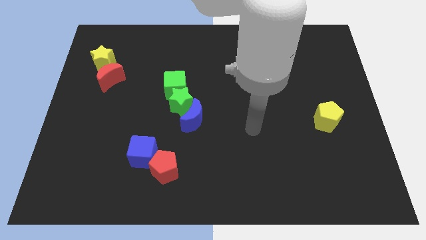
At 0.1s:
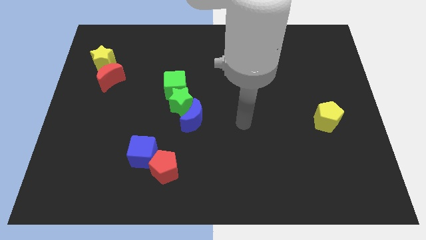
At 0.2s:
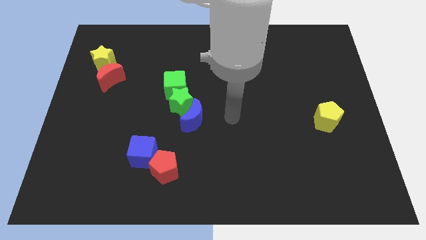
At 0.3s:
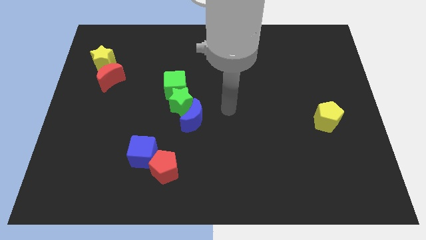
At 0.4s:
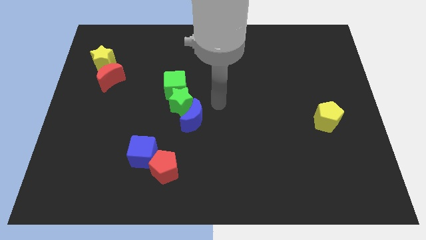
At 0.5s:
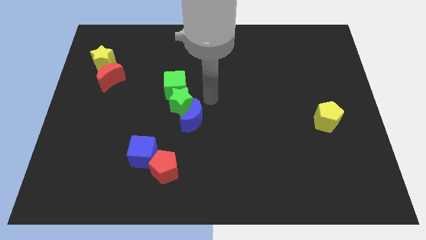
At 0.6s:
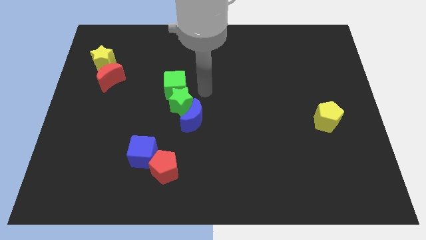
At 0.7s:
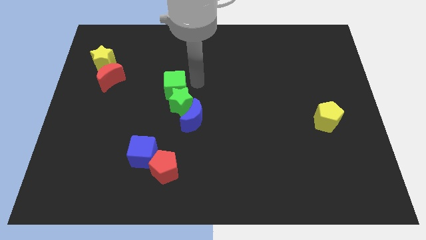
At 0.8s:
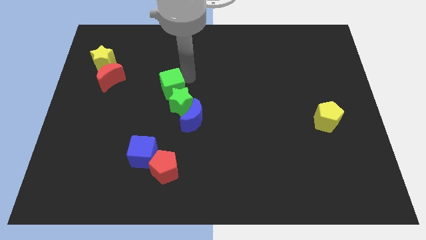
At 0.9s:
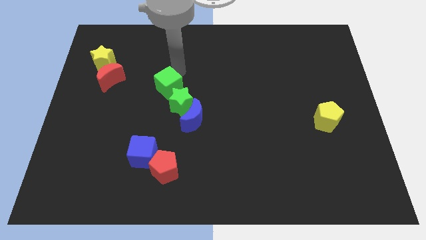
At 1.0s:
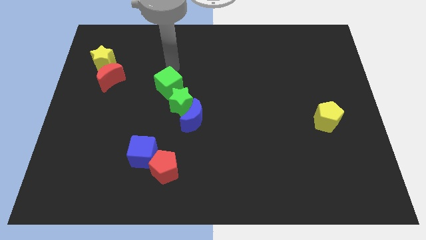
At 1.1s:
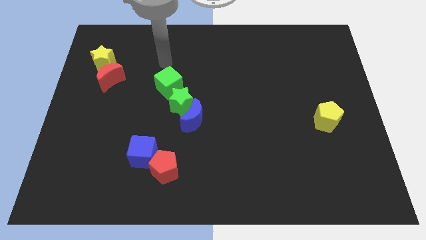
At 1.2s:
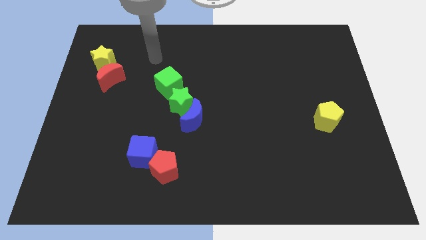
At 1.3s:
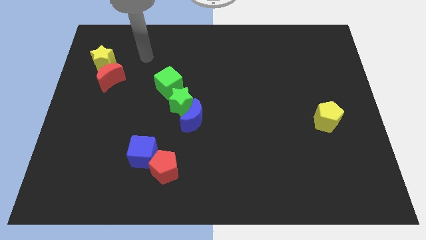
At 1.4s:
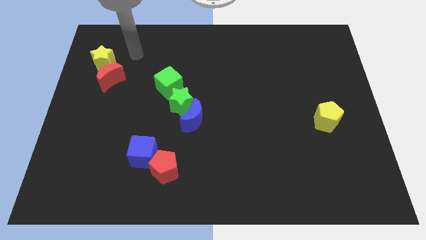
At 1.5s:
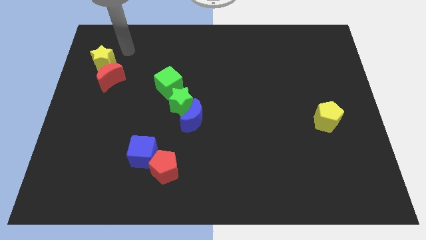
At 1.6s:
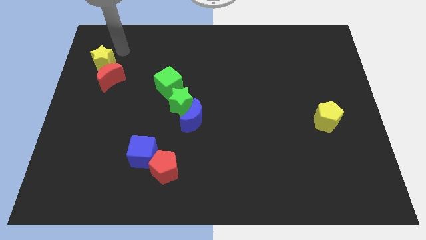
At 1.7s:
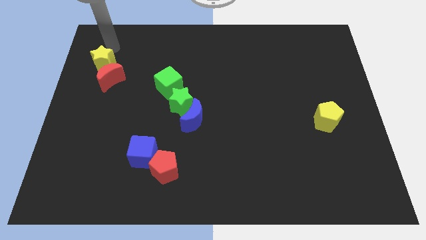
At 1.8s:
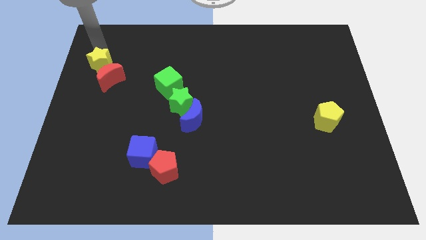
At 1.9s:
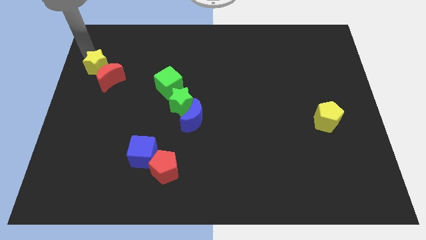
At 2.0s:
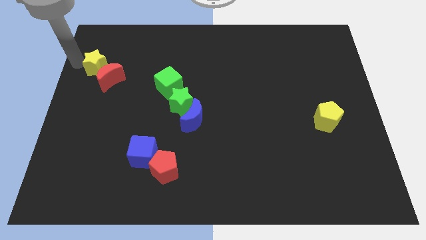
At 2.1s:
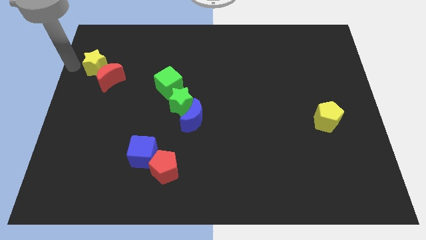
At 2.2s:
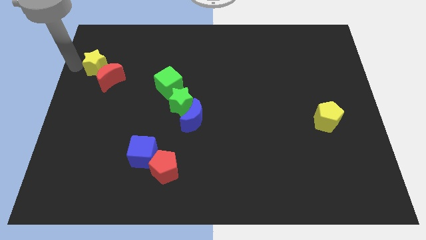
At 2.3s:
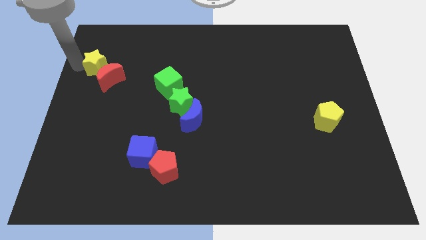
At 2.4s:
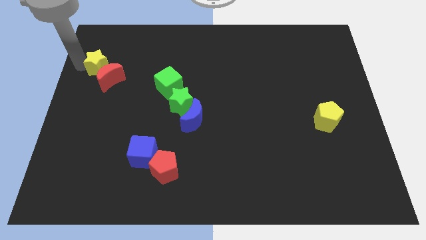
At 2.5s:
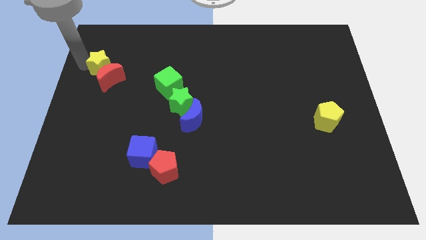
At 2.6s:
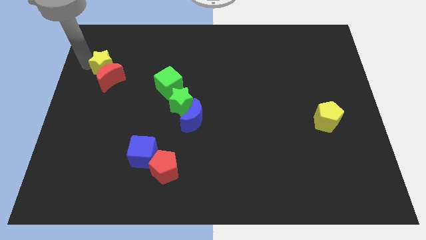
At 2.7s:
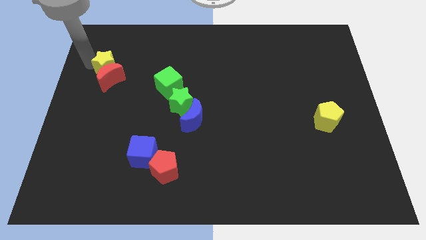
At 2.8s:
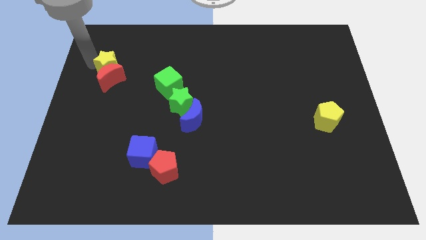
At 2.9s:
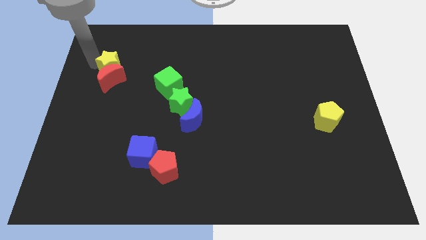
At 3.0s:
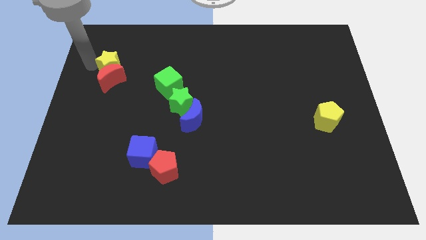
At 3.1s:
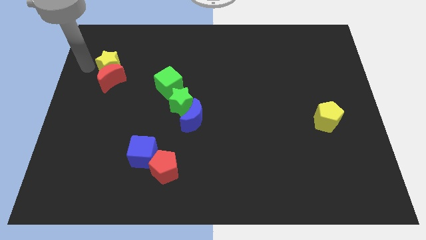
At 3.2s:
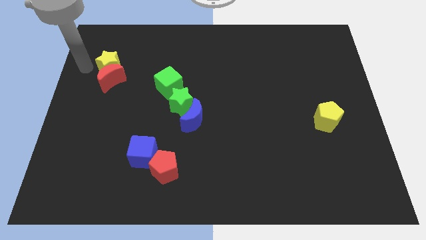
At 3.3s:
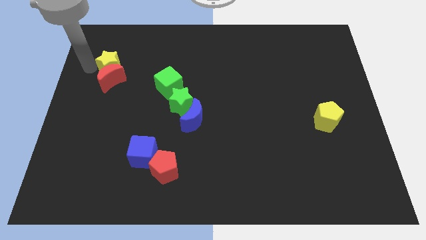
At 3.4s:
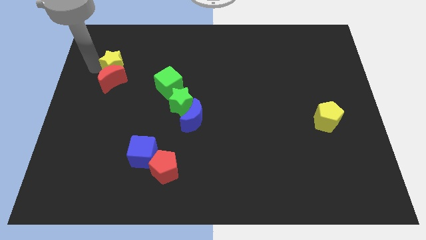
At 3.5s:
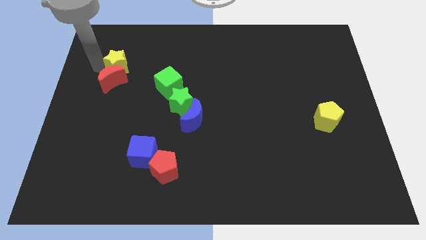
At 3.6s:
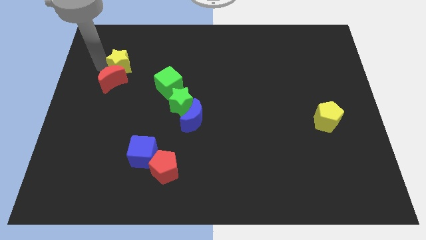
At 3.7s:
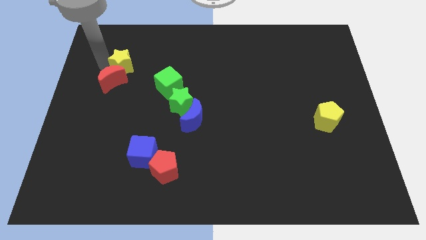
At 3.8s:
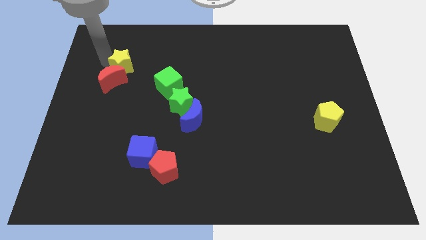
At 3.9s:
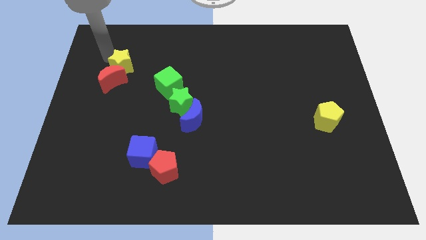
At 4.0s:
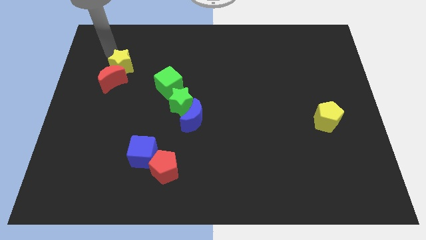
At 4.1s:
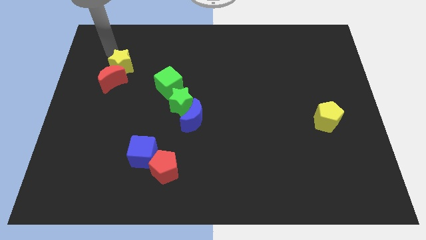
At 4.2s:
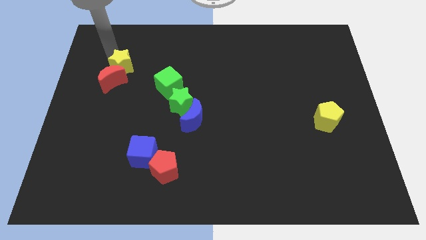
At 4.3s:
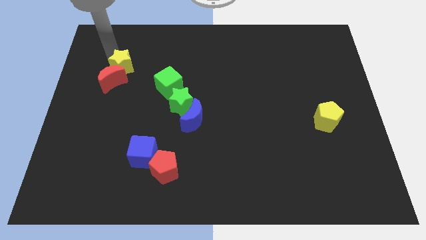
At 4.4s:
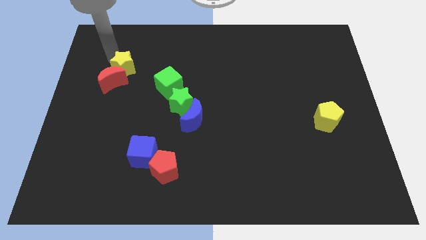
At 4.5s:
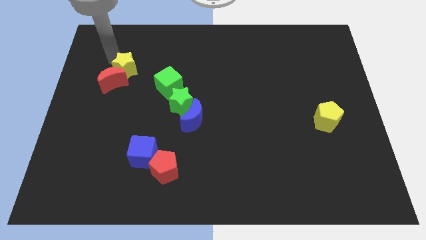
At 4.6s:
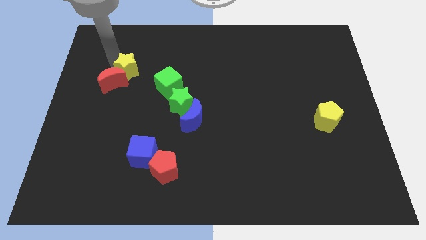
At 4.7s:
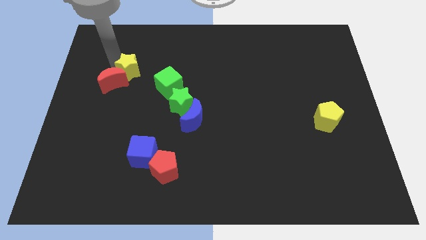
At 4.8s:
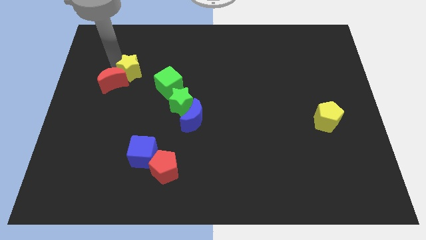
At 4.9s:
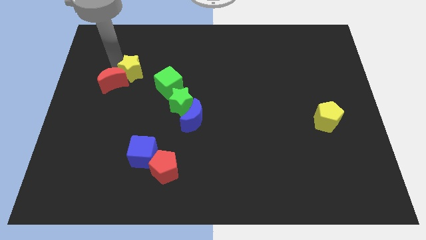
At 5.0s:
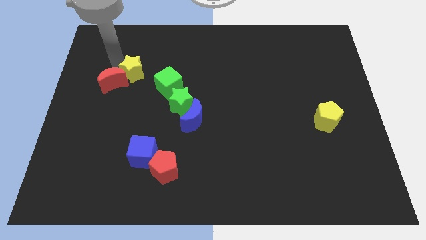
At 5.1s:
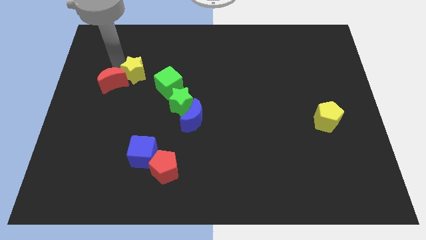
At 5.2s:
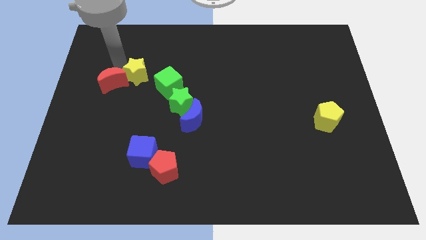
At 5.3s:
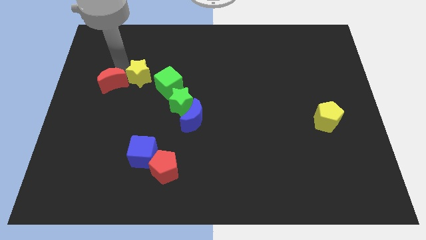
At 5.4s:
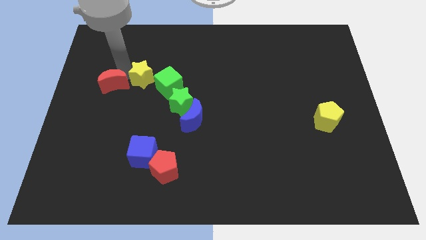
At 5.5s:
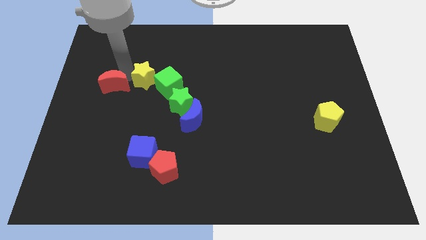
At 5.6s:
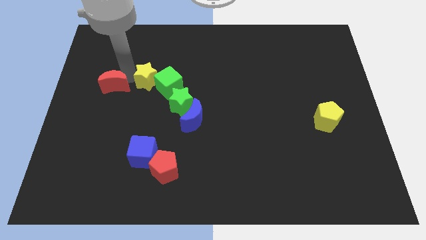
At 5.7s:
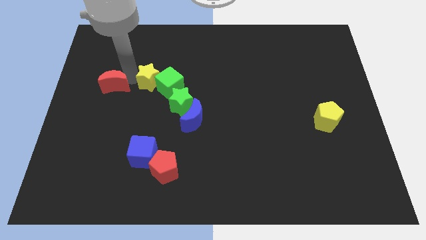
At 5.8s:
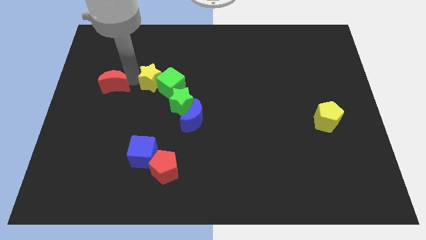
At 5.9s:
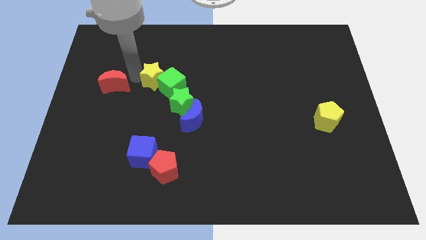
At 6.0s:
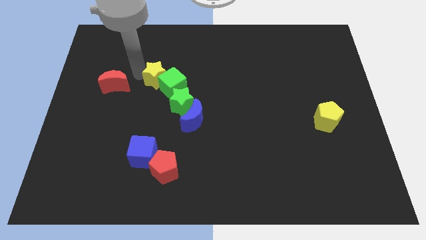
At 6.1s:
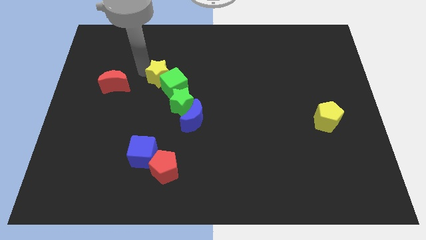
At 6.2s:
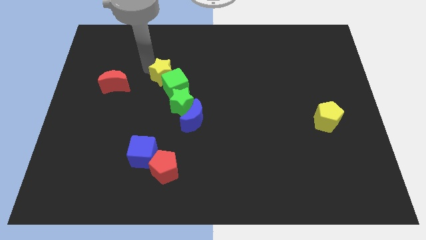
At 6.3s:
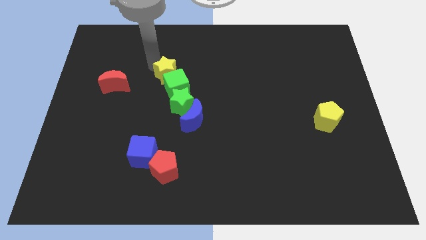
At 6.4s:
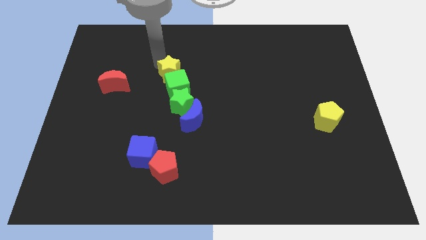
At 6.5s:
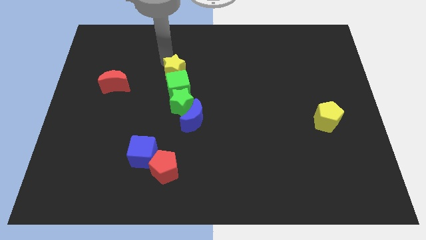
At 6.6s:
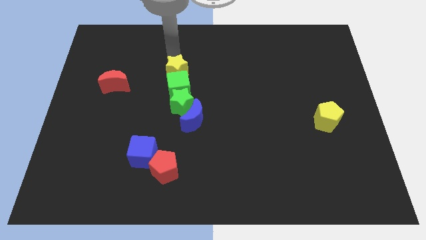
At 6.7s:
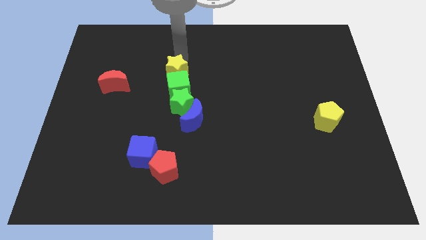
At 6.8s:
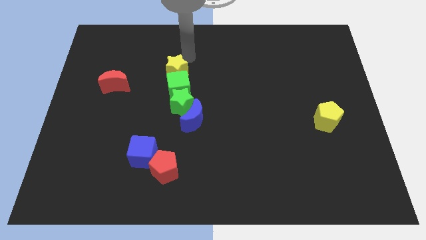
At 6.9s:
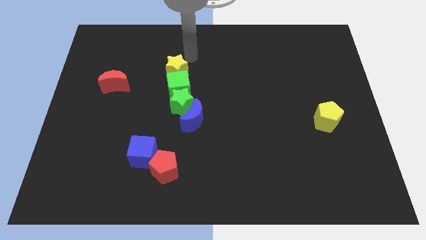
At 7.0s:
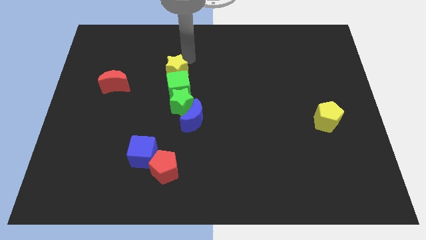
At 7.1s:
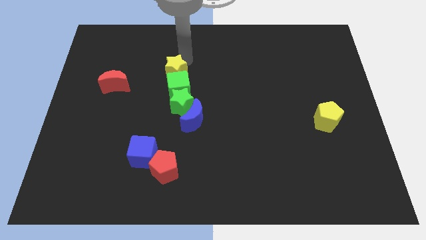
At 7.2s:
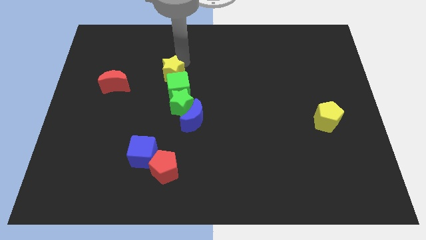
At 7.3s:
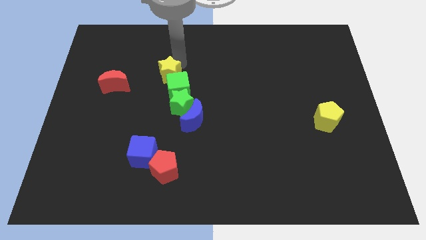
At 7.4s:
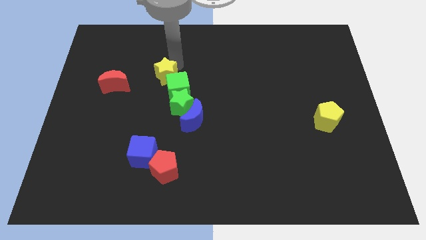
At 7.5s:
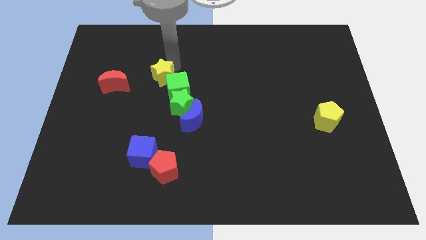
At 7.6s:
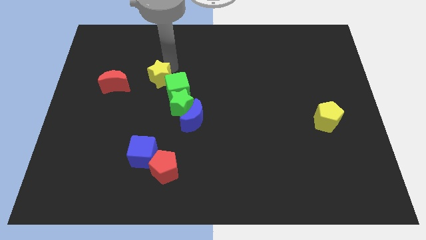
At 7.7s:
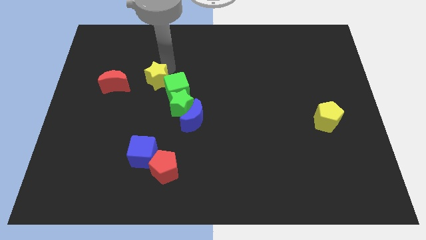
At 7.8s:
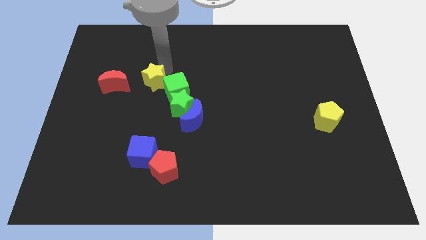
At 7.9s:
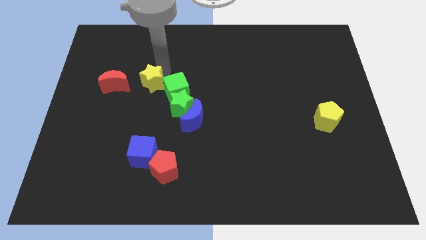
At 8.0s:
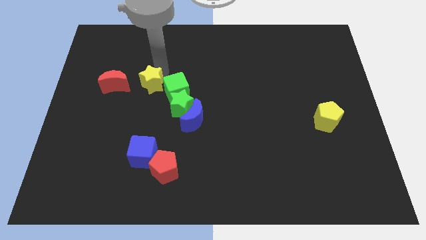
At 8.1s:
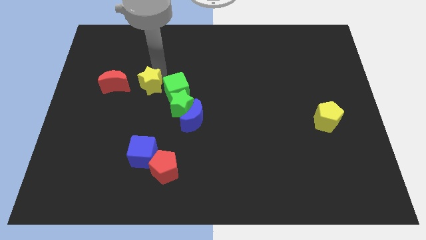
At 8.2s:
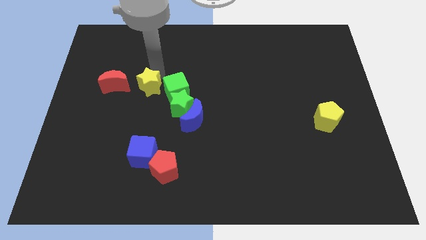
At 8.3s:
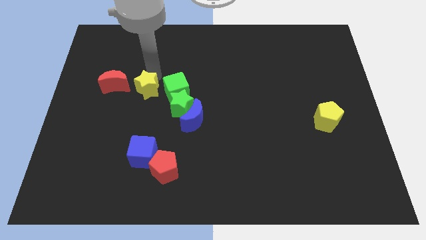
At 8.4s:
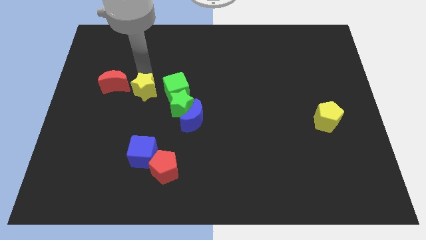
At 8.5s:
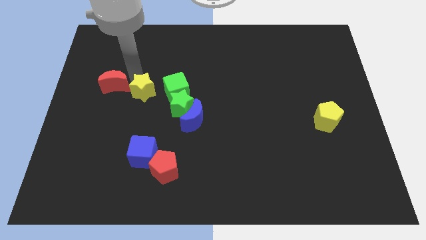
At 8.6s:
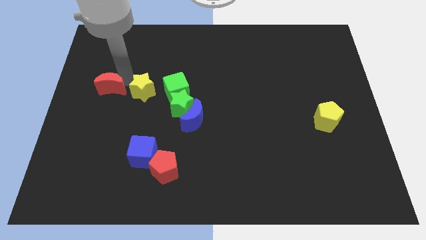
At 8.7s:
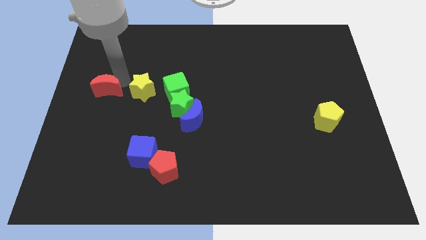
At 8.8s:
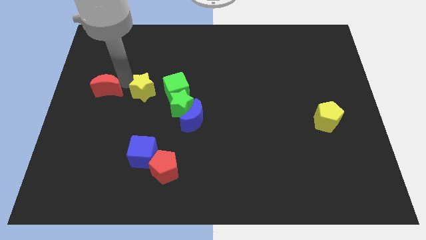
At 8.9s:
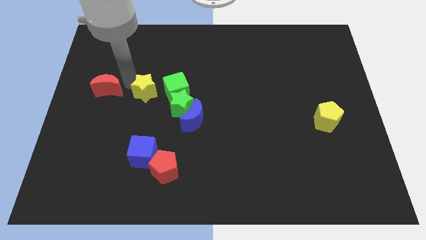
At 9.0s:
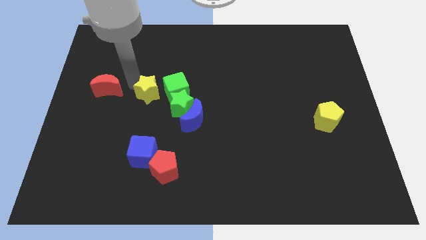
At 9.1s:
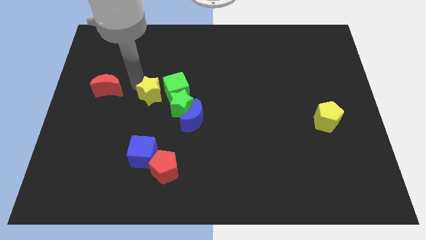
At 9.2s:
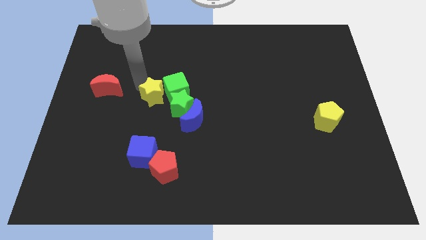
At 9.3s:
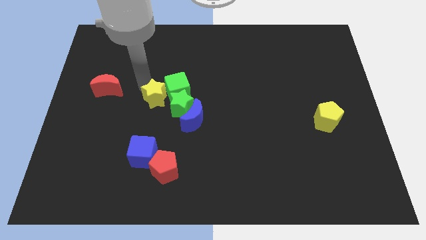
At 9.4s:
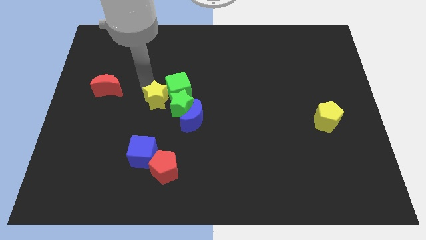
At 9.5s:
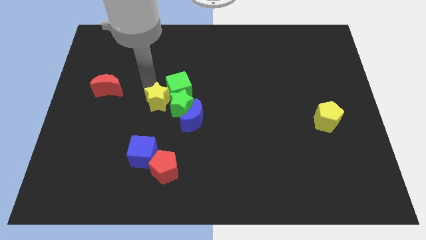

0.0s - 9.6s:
push the yellow star close to the green star
